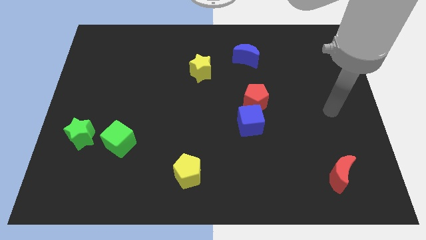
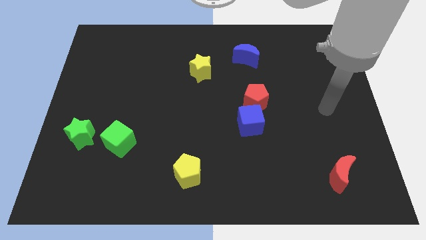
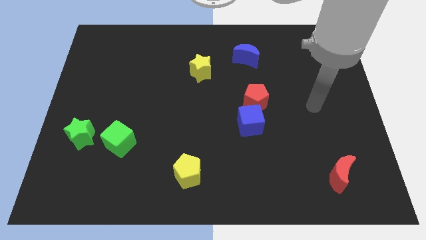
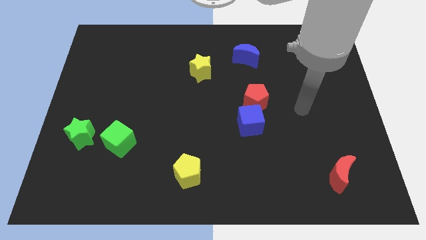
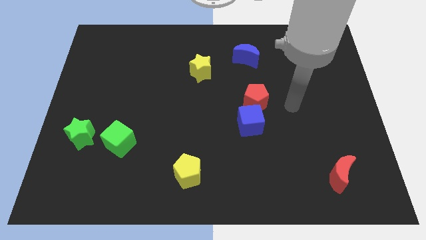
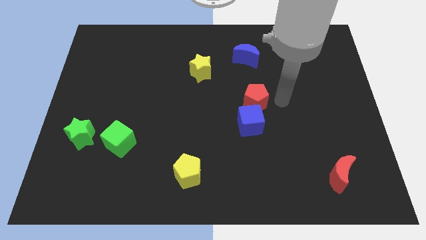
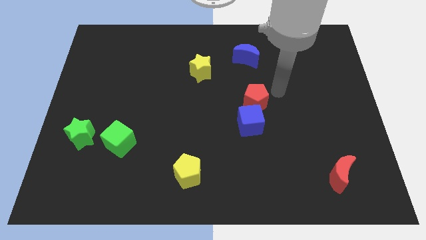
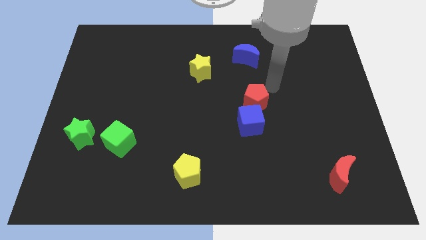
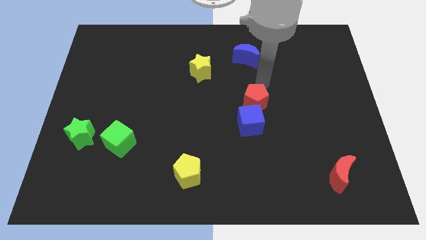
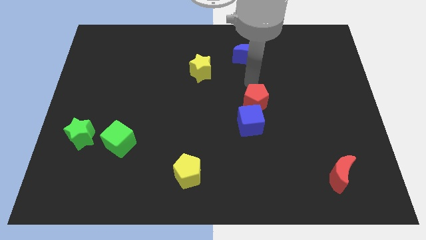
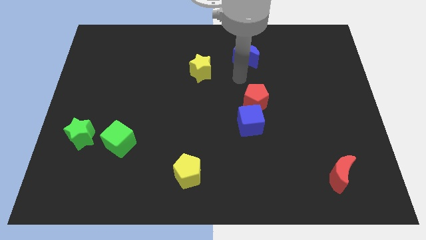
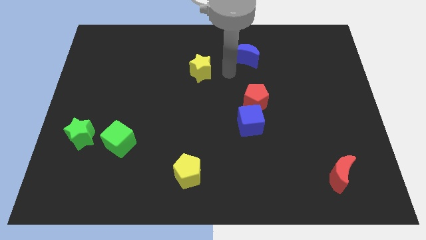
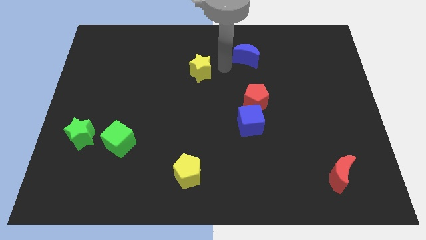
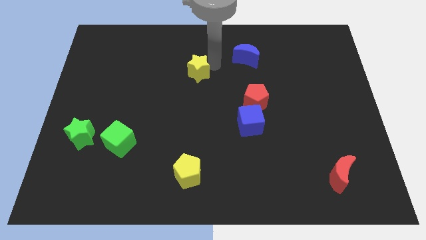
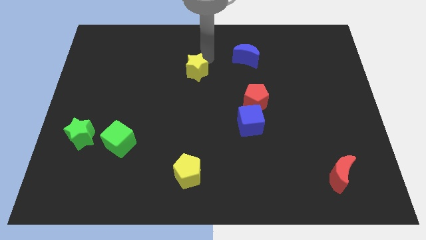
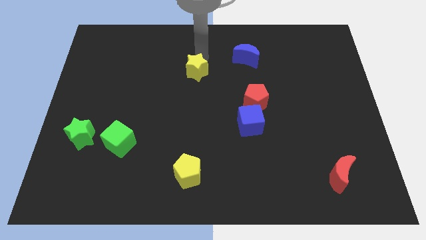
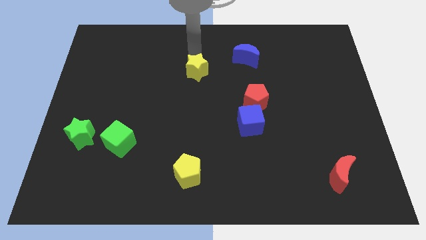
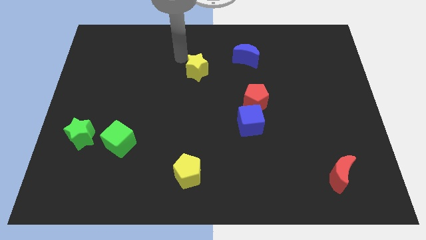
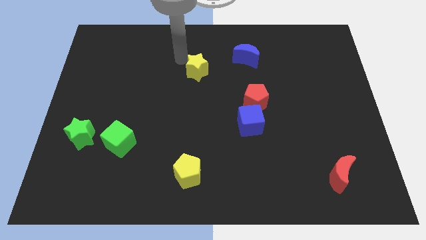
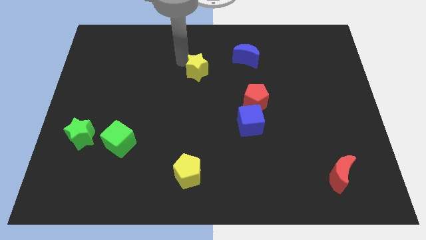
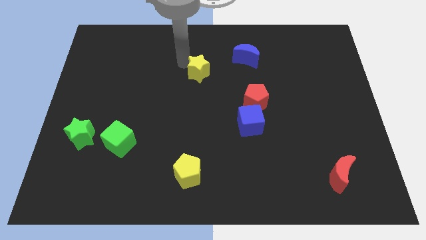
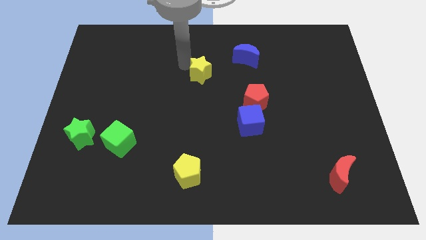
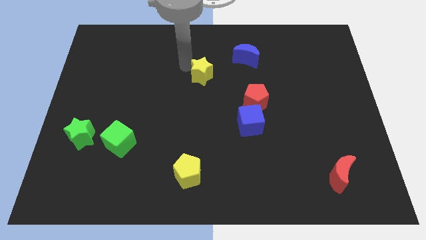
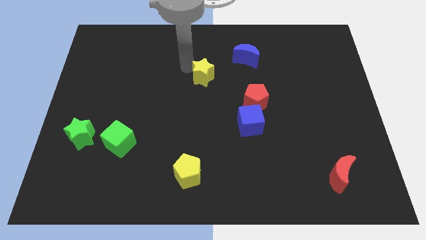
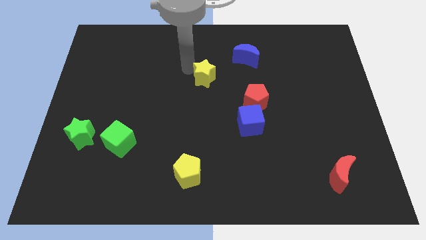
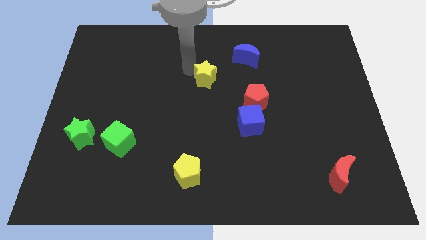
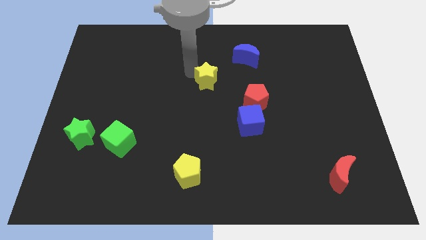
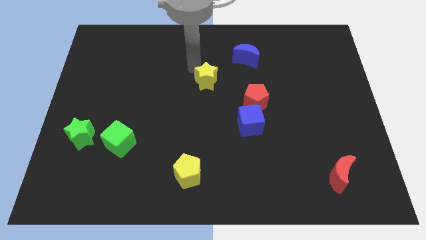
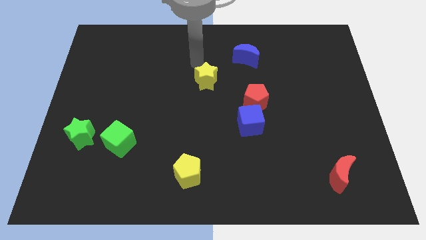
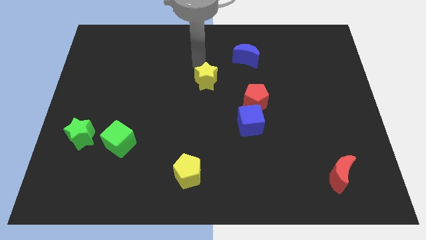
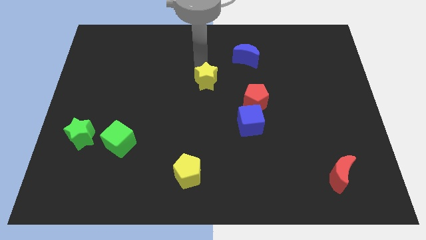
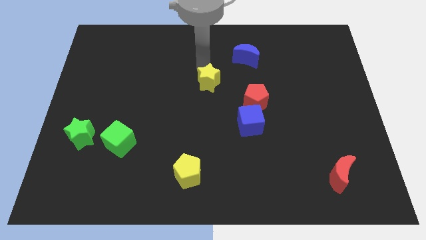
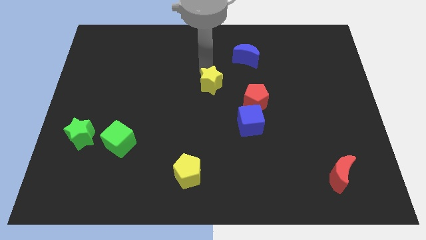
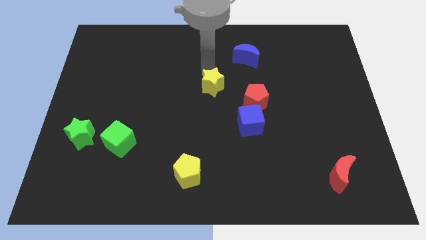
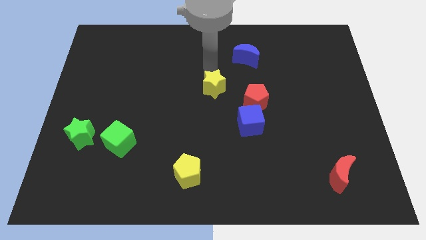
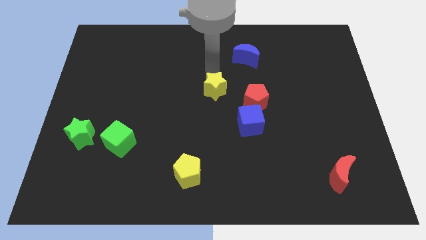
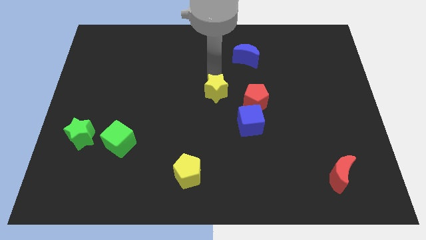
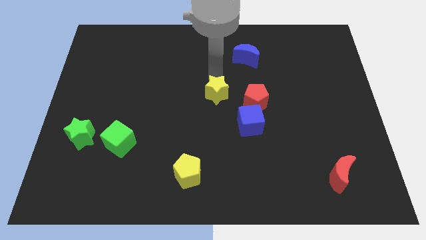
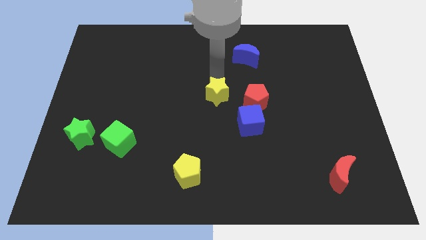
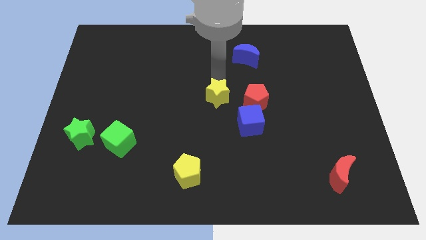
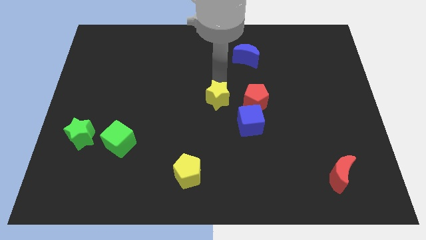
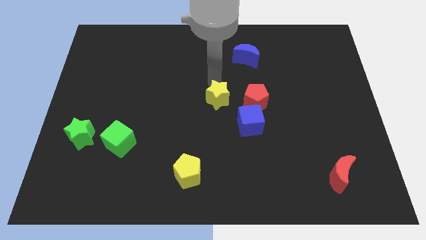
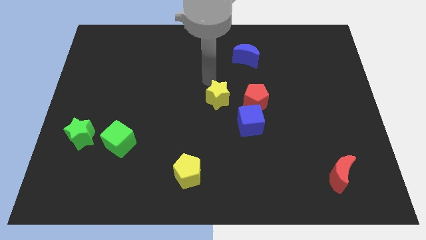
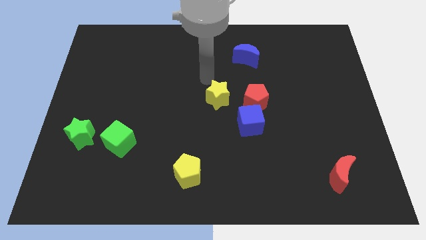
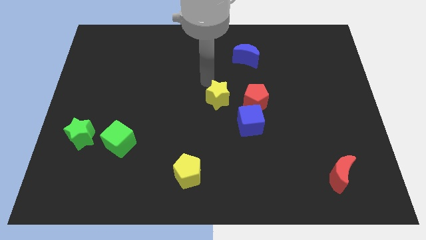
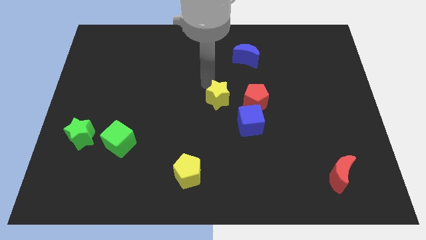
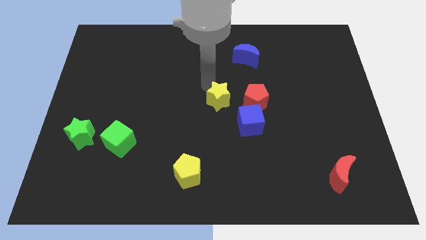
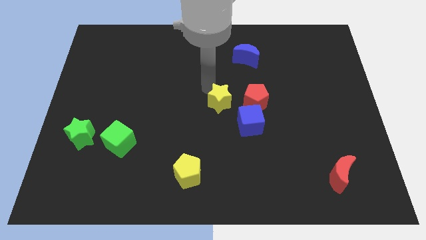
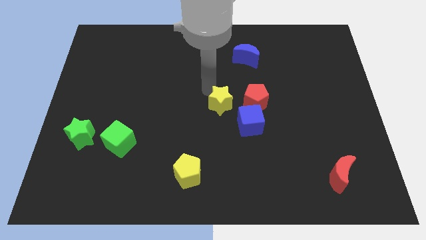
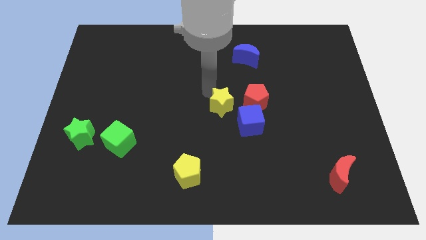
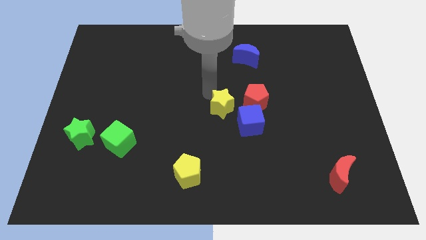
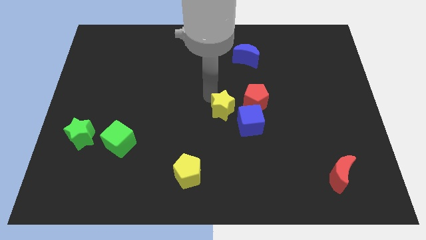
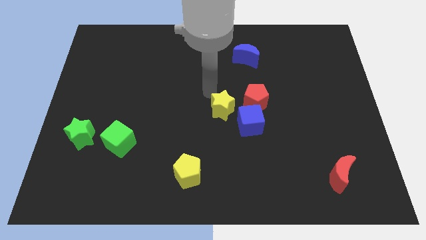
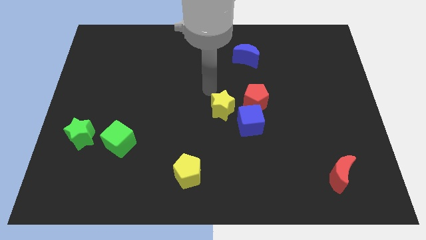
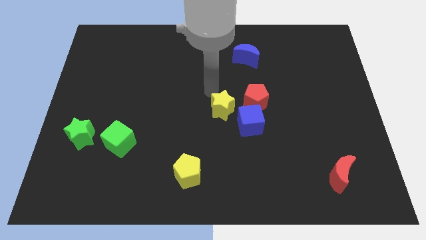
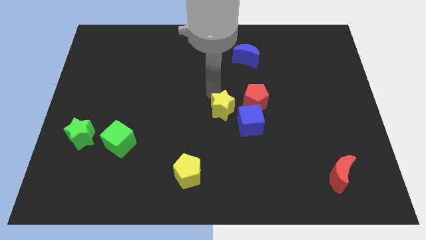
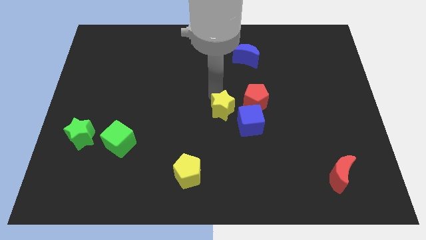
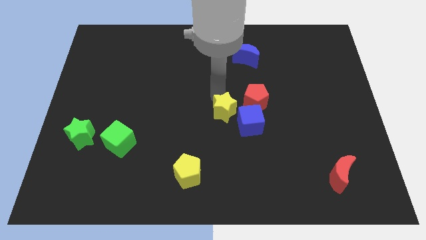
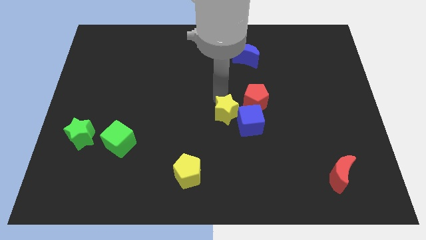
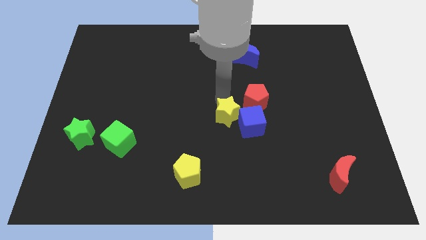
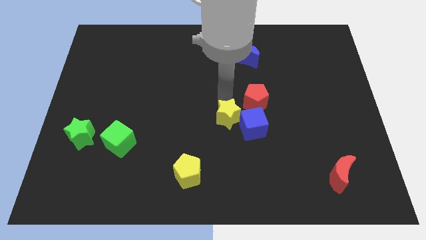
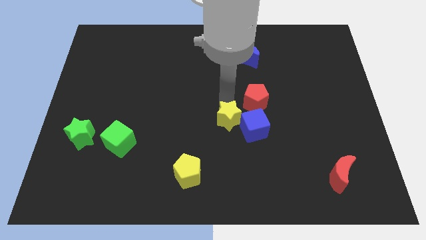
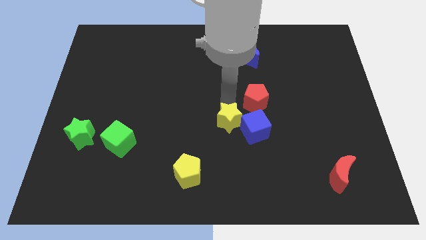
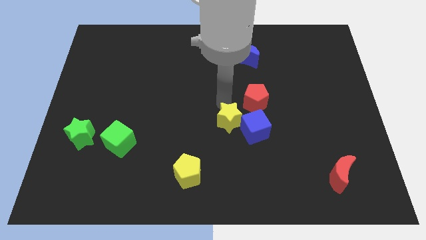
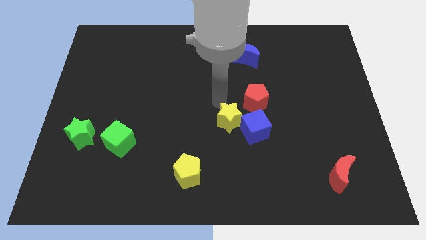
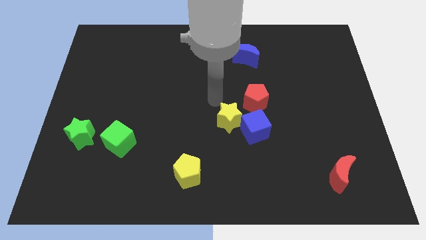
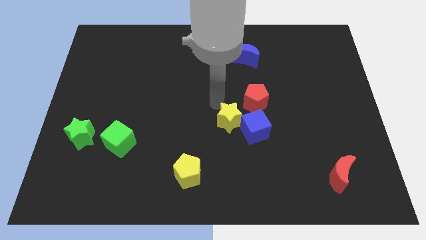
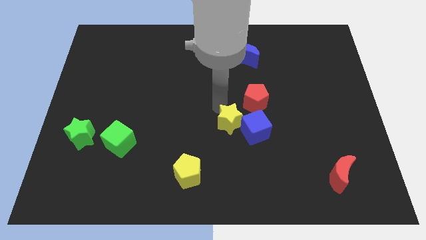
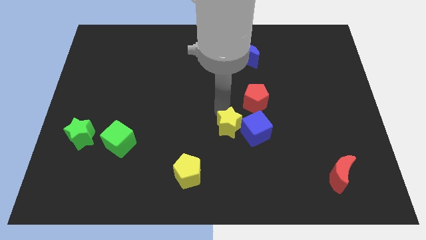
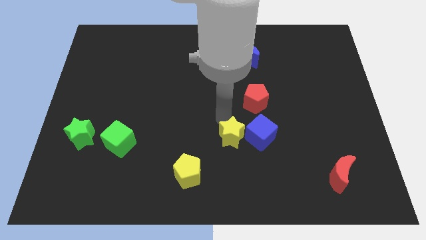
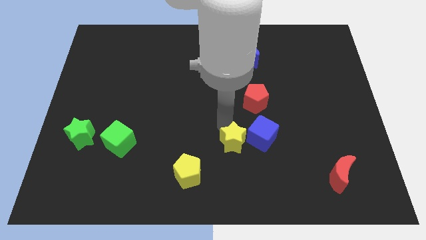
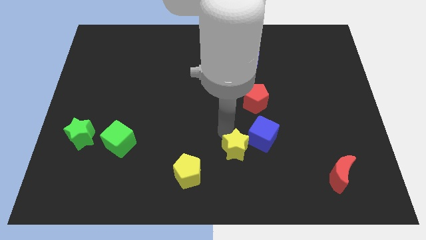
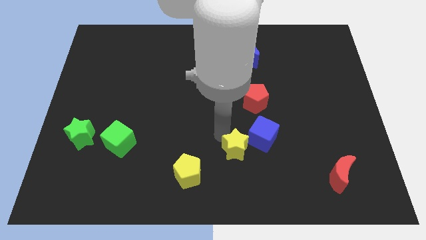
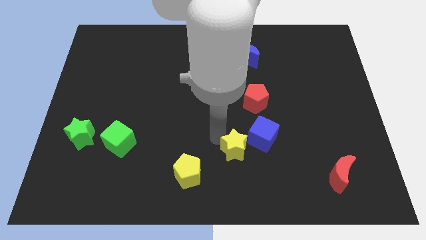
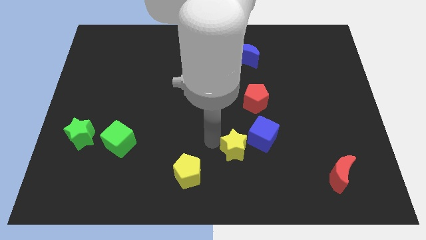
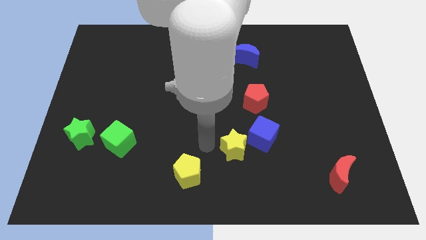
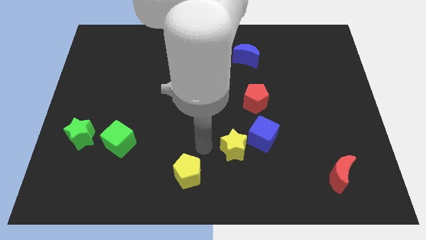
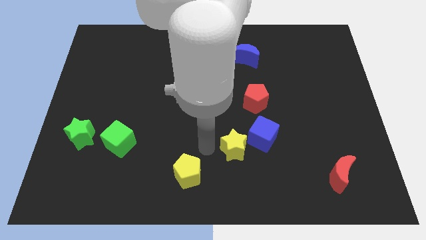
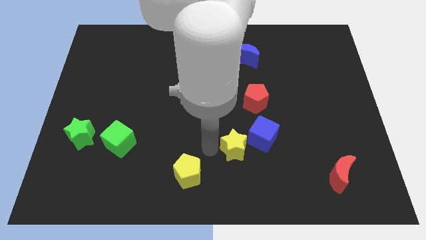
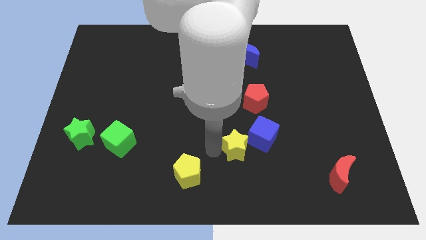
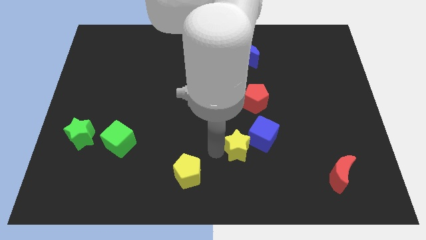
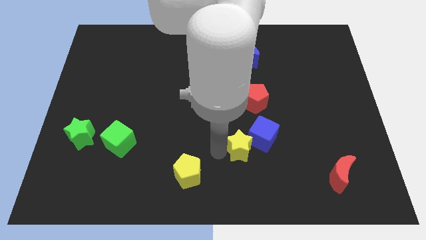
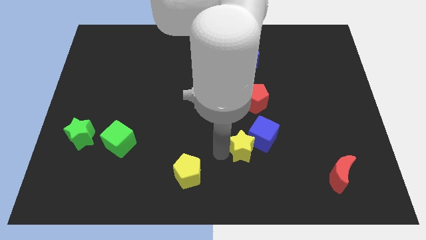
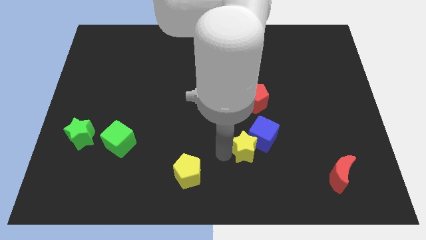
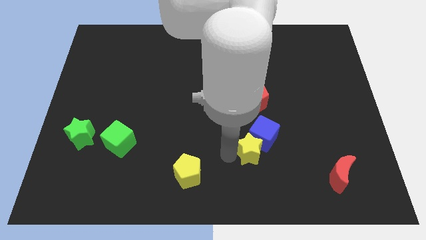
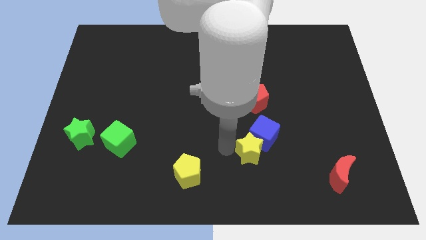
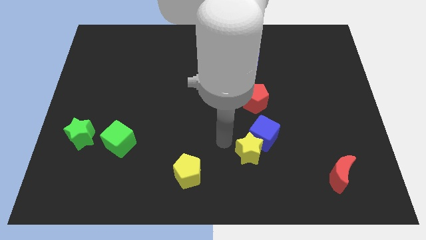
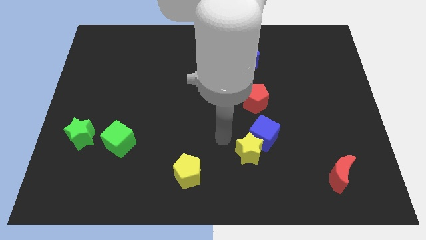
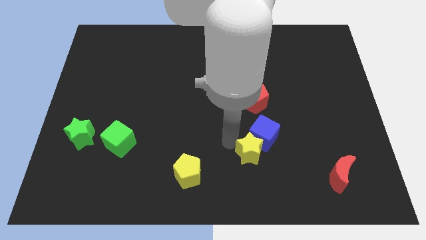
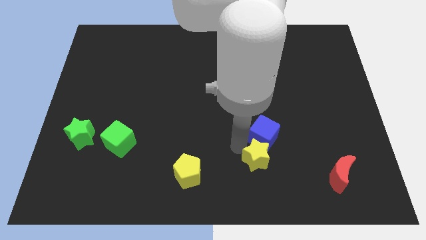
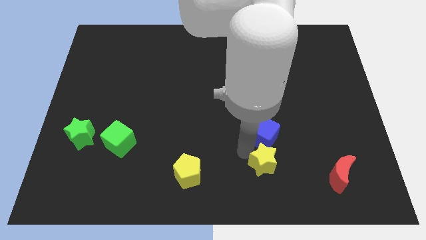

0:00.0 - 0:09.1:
move the yellow star just left of the red moon
